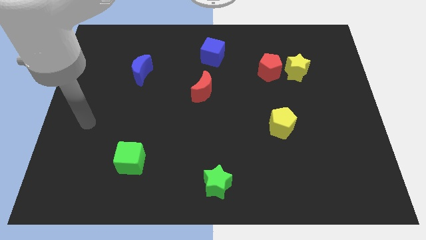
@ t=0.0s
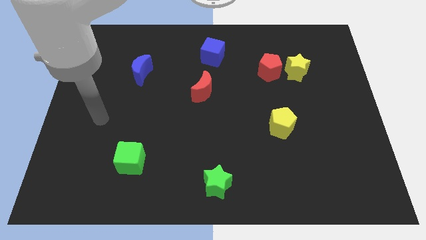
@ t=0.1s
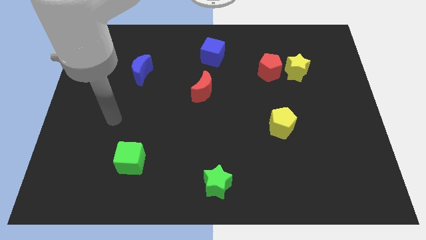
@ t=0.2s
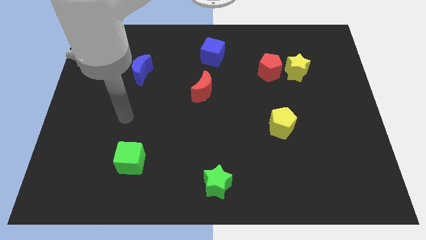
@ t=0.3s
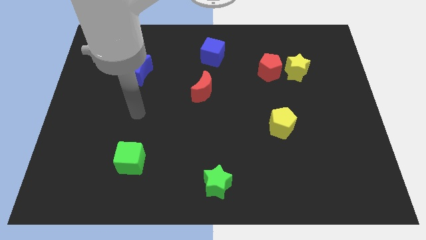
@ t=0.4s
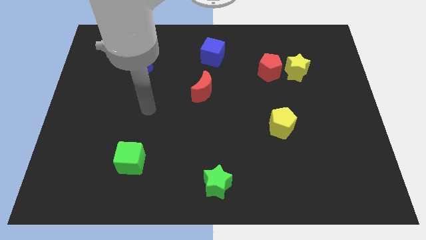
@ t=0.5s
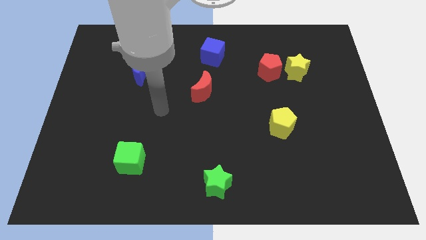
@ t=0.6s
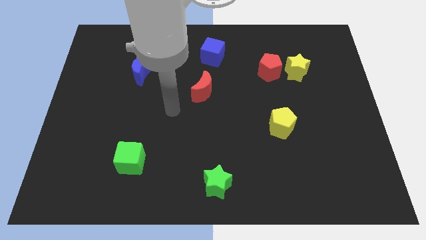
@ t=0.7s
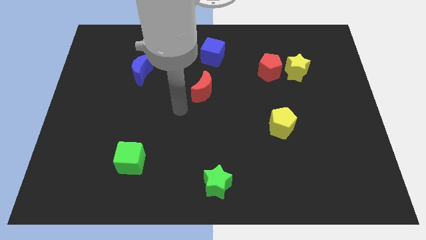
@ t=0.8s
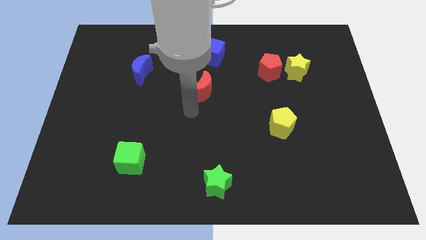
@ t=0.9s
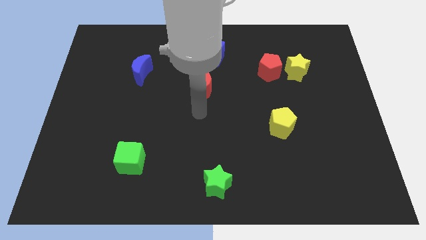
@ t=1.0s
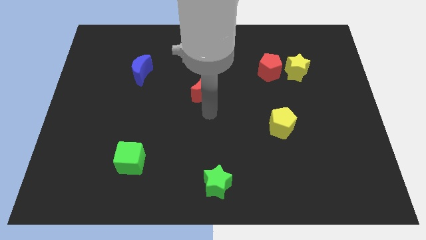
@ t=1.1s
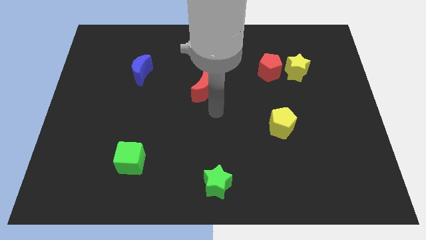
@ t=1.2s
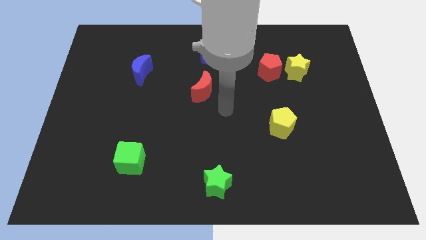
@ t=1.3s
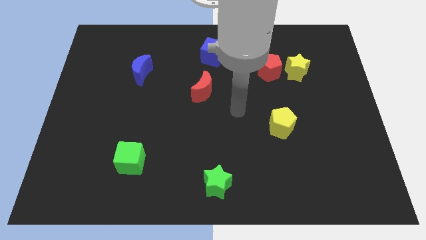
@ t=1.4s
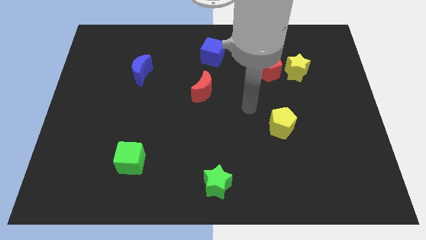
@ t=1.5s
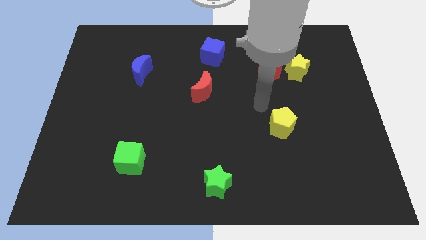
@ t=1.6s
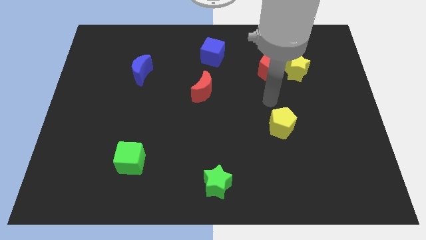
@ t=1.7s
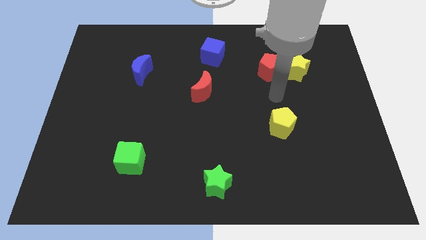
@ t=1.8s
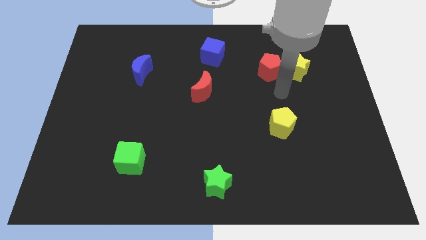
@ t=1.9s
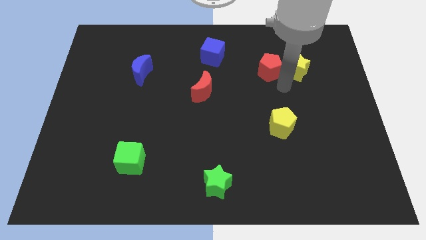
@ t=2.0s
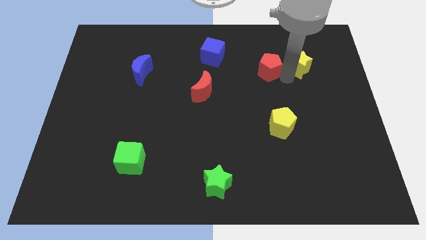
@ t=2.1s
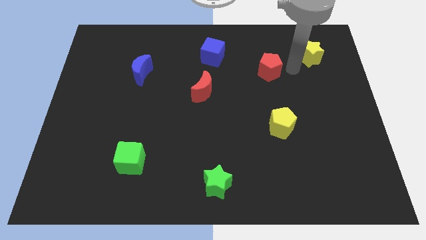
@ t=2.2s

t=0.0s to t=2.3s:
pull the red pentagon apart from the yellow star

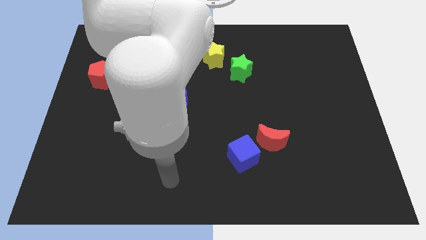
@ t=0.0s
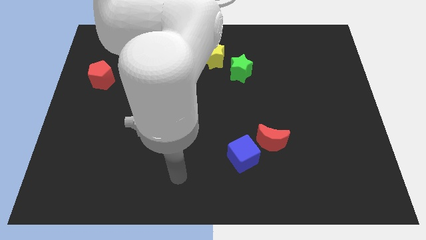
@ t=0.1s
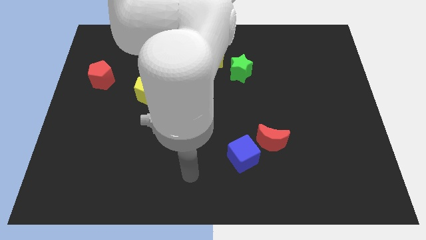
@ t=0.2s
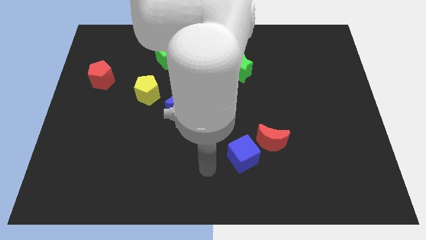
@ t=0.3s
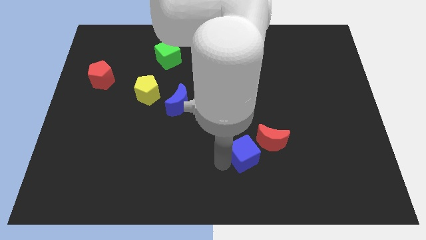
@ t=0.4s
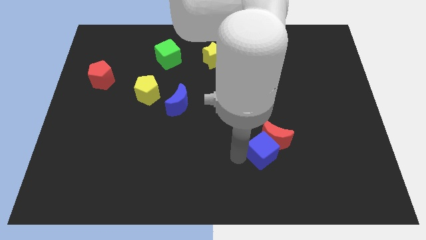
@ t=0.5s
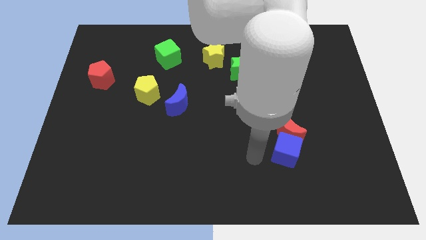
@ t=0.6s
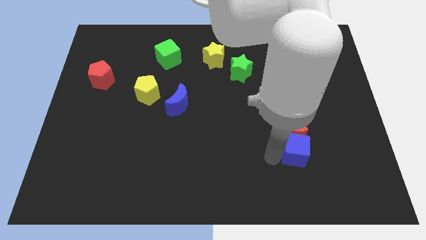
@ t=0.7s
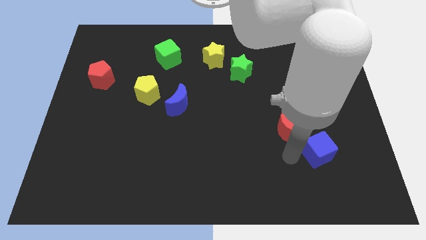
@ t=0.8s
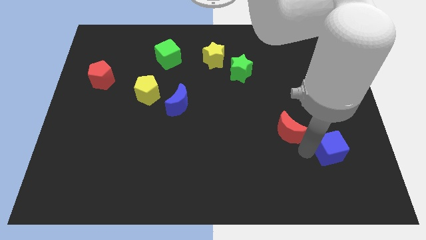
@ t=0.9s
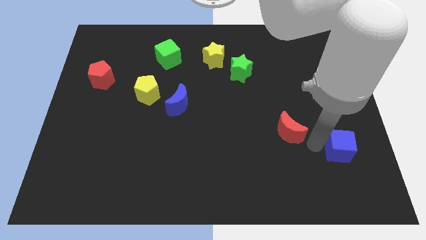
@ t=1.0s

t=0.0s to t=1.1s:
move the red moon away from the blue cube

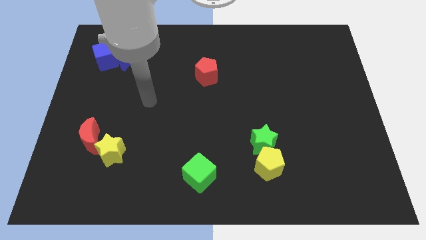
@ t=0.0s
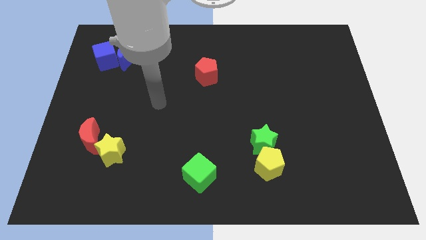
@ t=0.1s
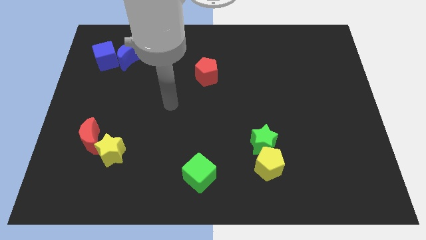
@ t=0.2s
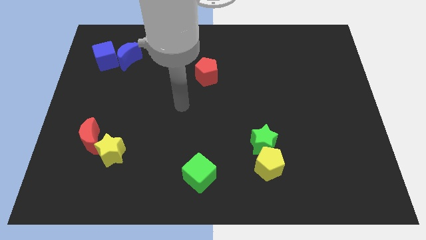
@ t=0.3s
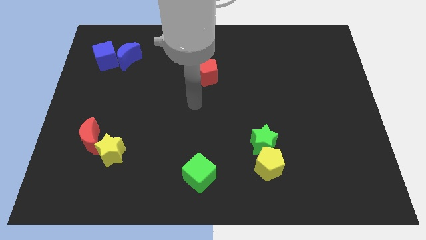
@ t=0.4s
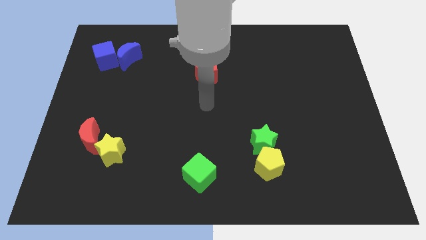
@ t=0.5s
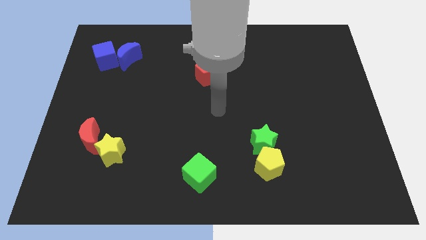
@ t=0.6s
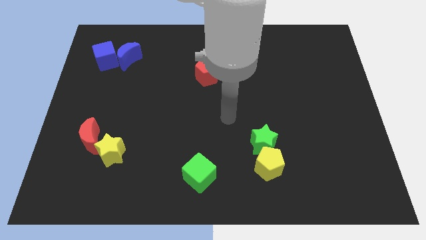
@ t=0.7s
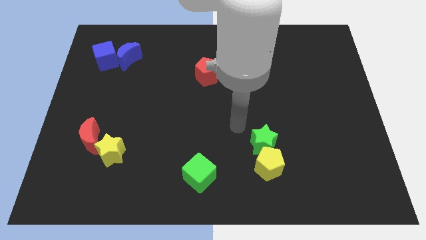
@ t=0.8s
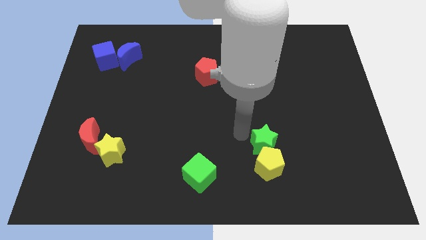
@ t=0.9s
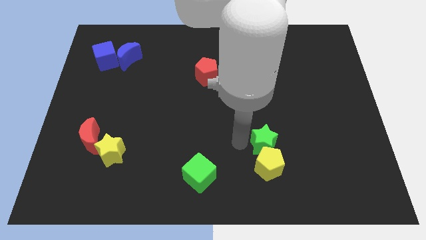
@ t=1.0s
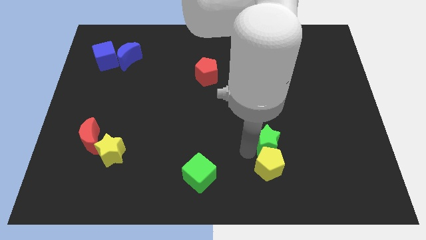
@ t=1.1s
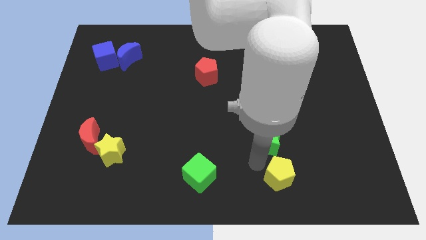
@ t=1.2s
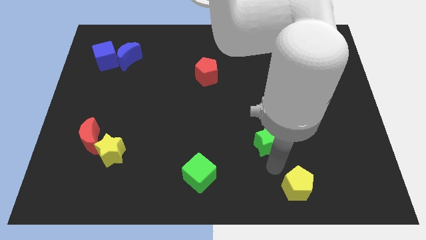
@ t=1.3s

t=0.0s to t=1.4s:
pull the green star apart from the yellow pentagon

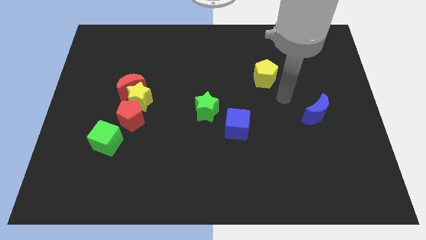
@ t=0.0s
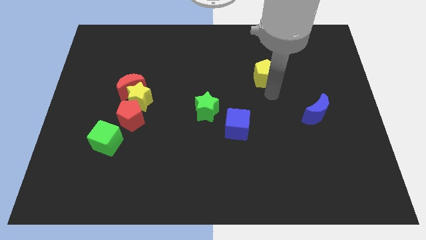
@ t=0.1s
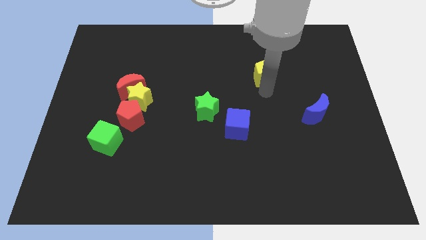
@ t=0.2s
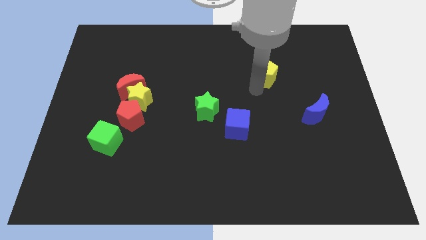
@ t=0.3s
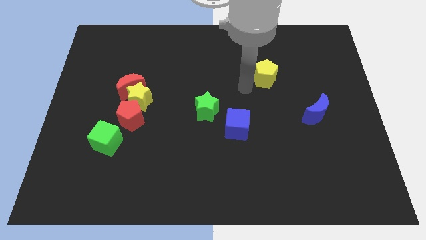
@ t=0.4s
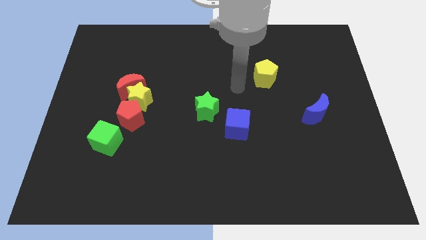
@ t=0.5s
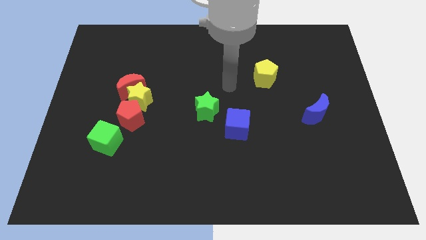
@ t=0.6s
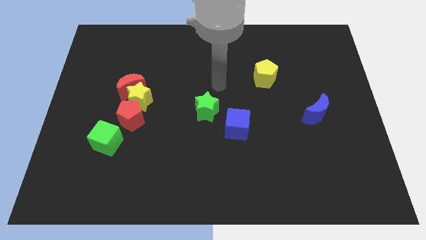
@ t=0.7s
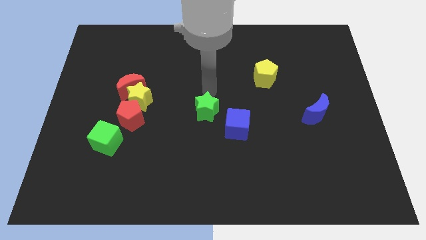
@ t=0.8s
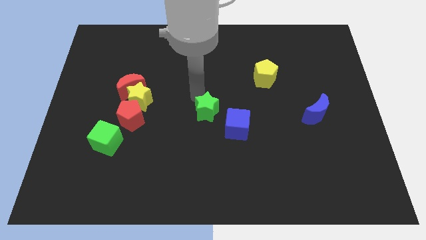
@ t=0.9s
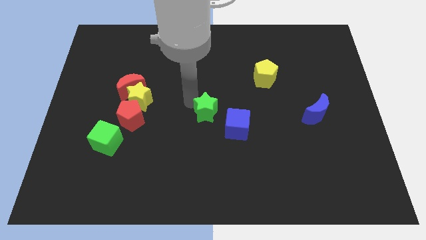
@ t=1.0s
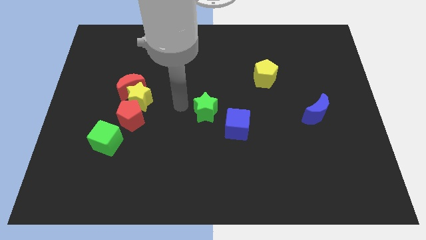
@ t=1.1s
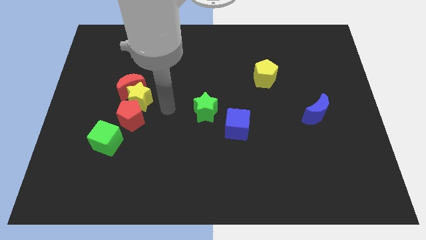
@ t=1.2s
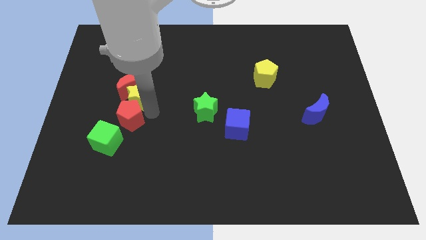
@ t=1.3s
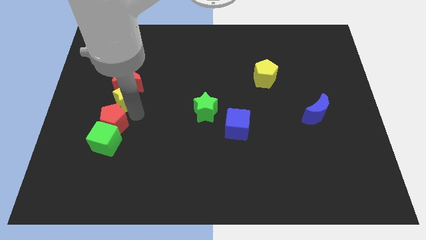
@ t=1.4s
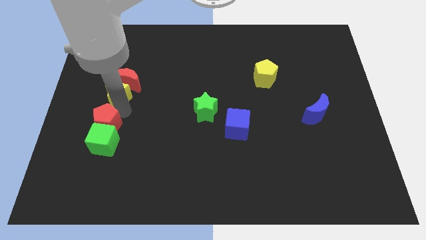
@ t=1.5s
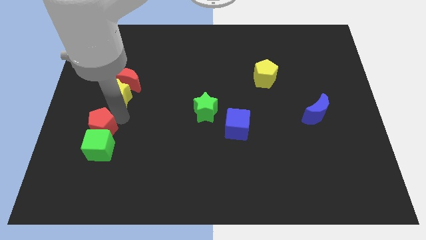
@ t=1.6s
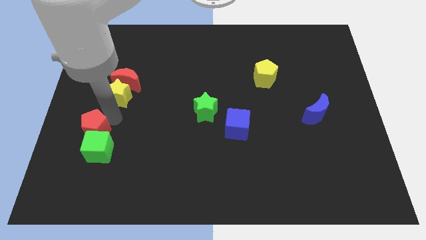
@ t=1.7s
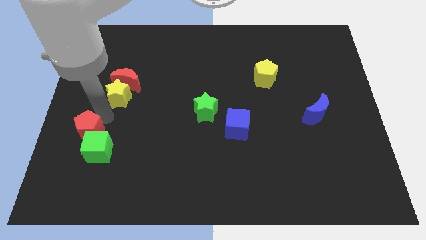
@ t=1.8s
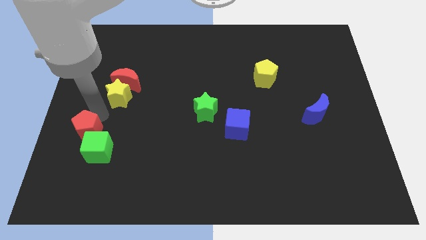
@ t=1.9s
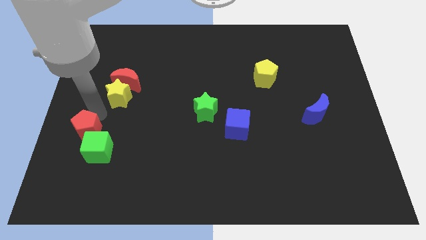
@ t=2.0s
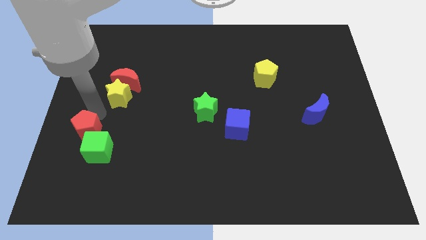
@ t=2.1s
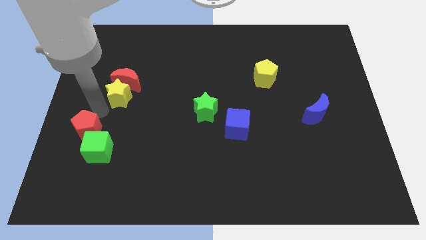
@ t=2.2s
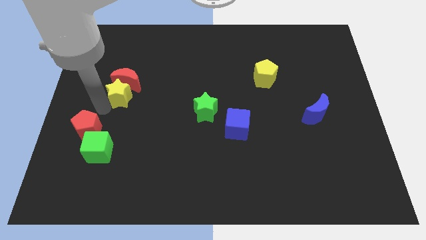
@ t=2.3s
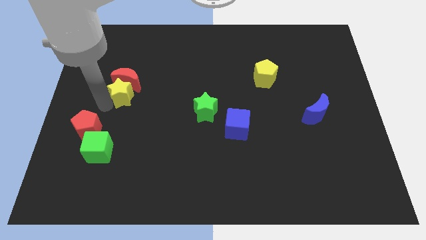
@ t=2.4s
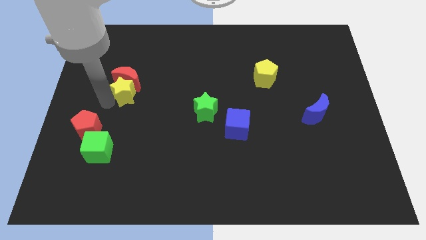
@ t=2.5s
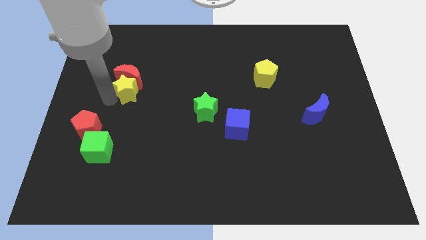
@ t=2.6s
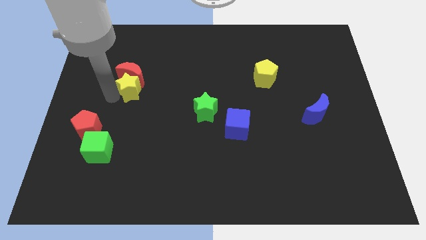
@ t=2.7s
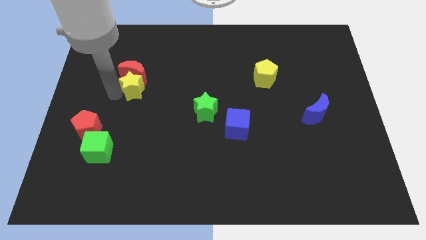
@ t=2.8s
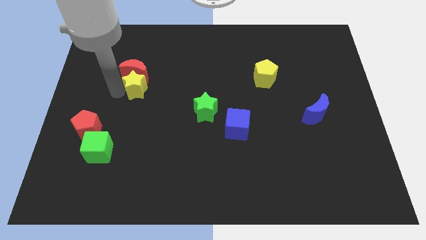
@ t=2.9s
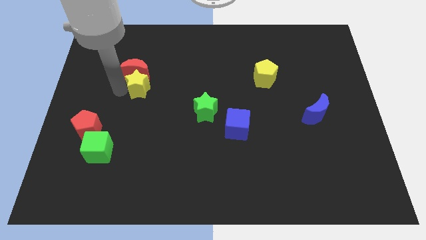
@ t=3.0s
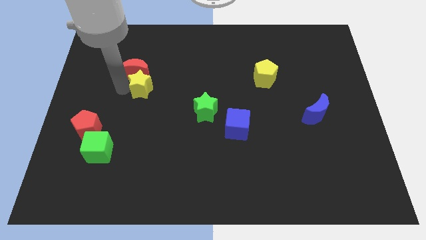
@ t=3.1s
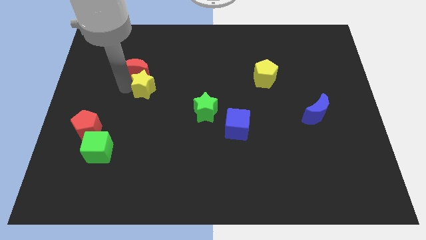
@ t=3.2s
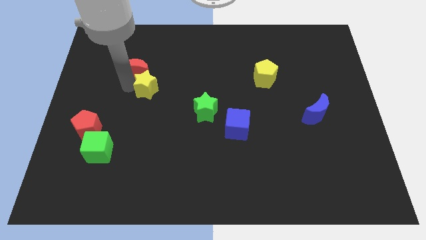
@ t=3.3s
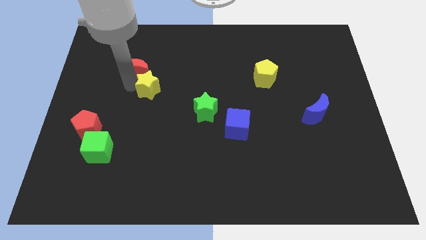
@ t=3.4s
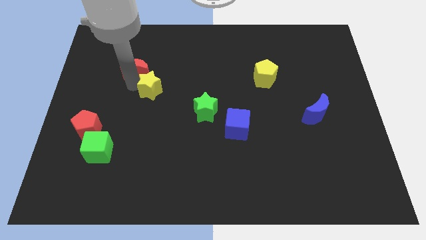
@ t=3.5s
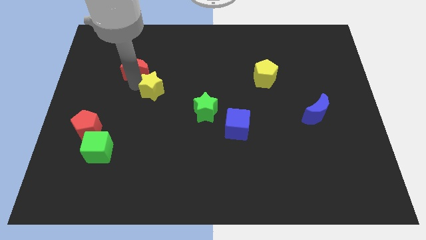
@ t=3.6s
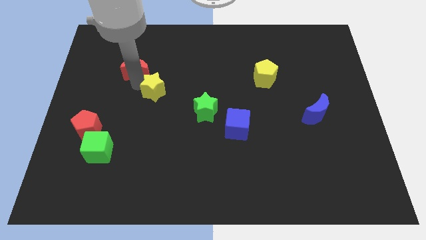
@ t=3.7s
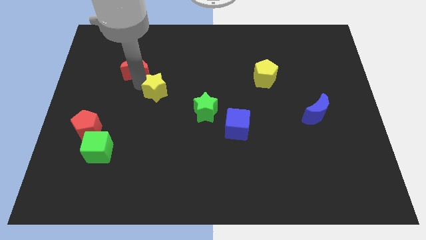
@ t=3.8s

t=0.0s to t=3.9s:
pull the yellow star apart from the red moon and red pentagon

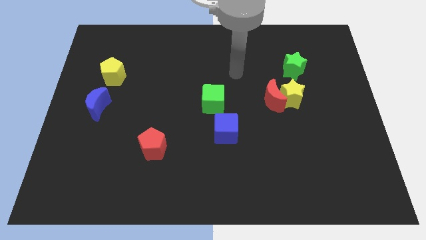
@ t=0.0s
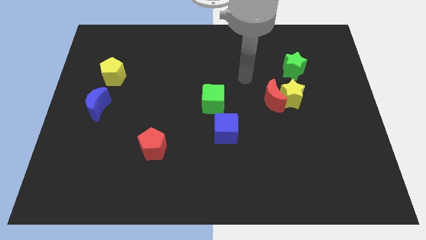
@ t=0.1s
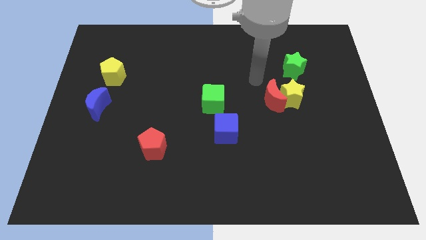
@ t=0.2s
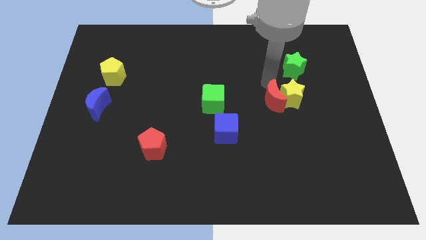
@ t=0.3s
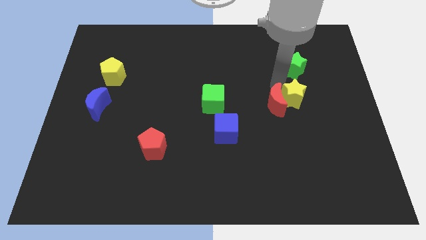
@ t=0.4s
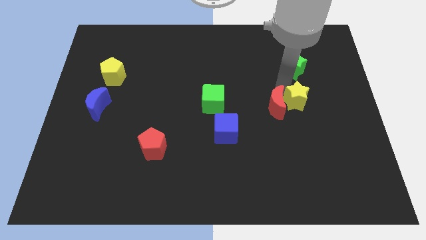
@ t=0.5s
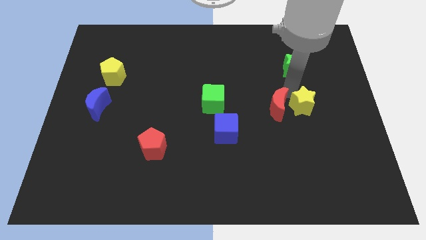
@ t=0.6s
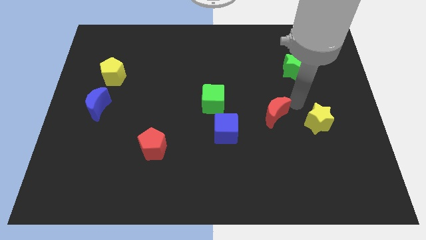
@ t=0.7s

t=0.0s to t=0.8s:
pull the red moon apart from the yellow star

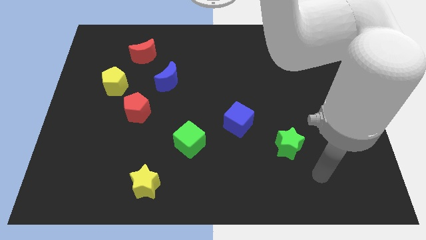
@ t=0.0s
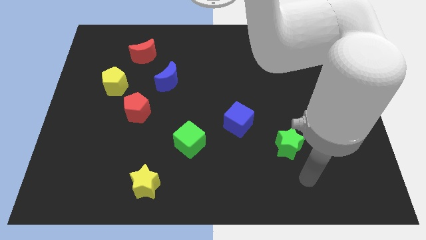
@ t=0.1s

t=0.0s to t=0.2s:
pull the red pentagon apart from the yellow pentagon
